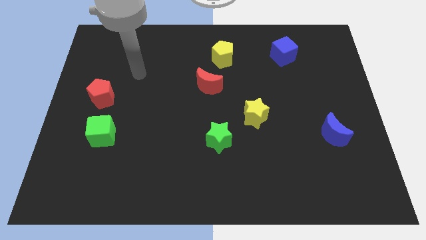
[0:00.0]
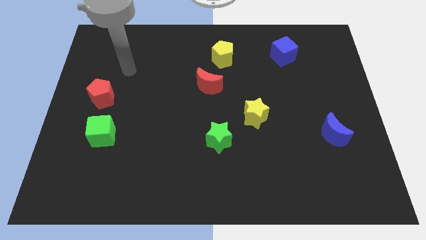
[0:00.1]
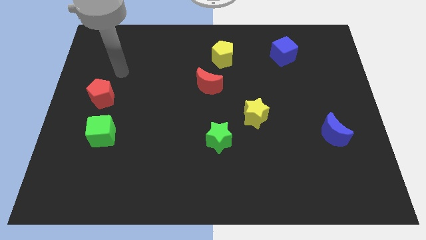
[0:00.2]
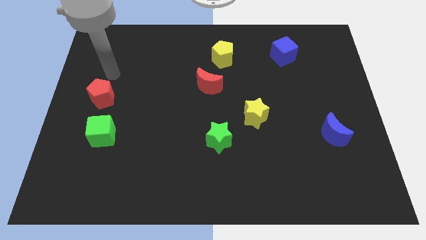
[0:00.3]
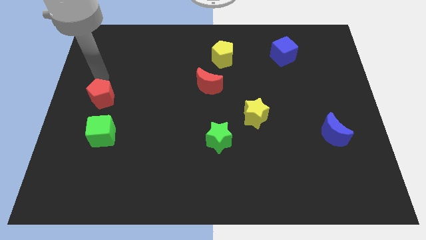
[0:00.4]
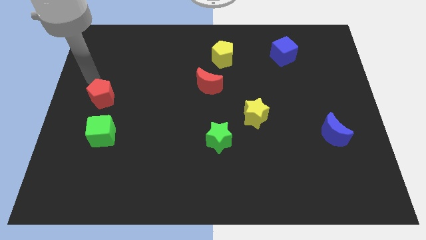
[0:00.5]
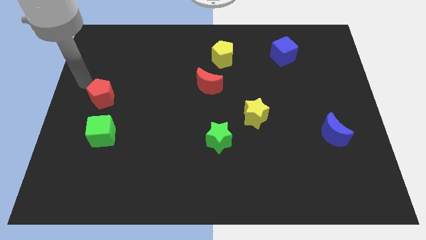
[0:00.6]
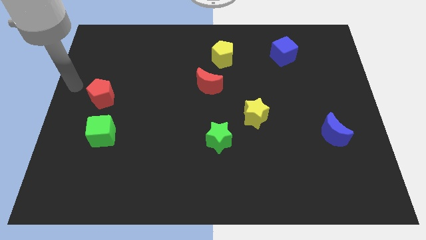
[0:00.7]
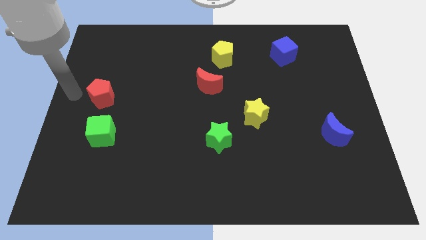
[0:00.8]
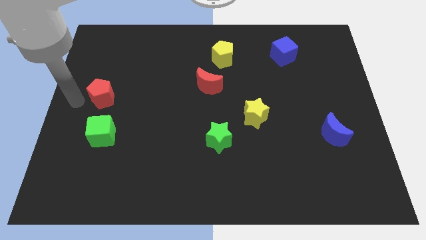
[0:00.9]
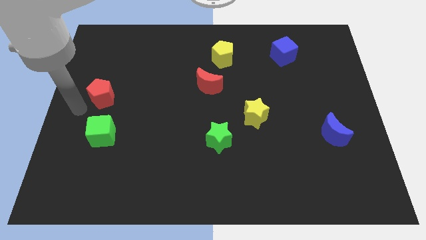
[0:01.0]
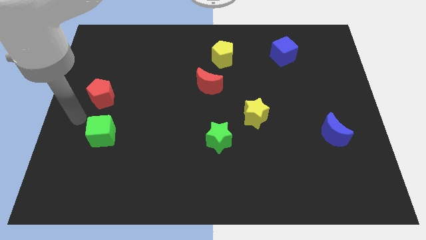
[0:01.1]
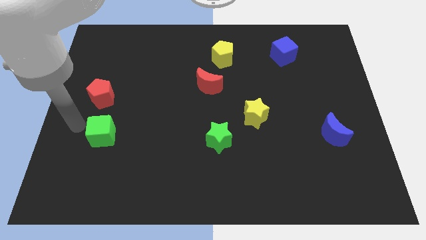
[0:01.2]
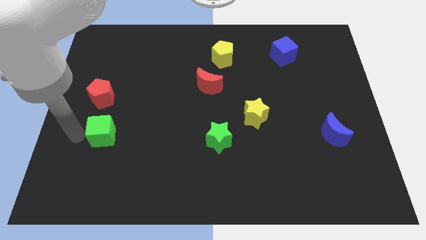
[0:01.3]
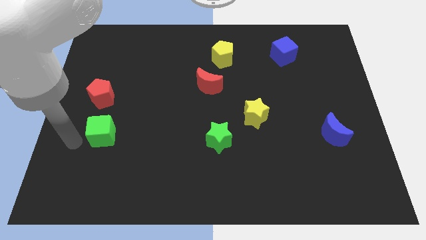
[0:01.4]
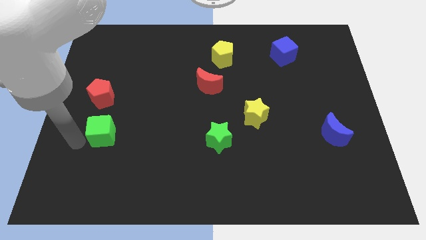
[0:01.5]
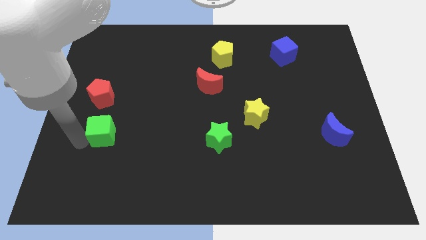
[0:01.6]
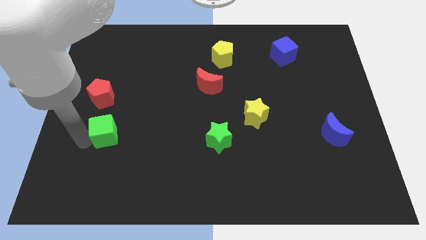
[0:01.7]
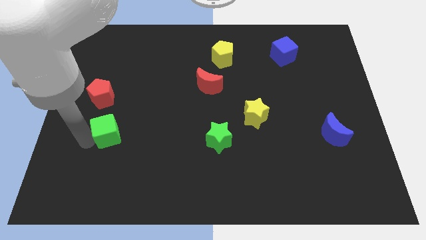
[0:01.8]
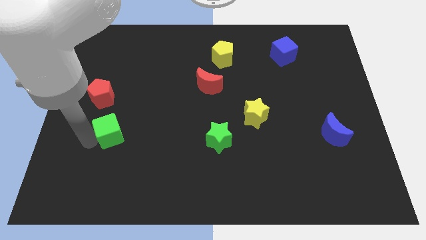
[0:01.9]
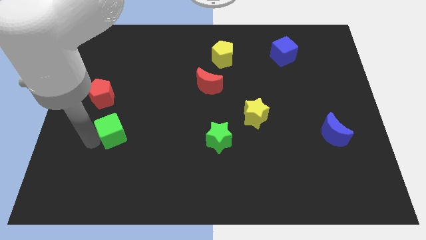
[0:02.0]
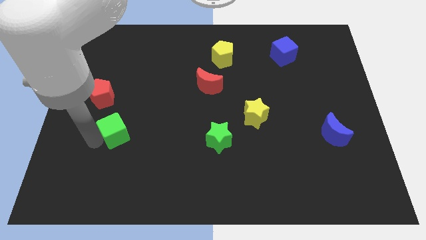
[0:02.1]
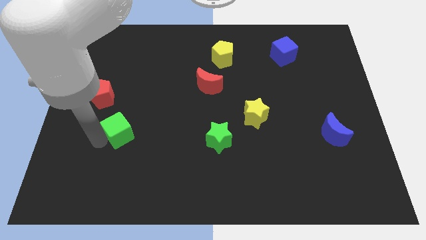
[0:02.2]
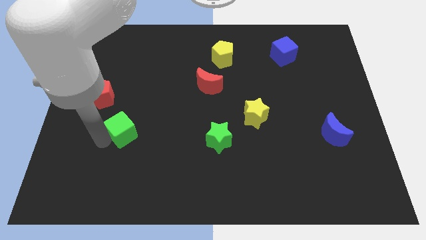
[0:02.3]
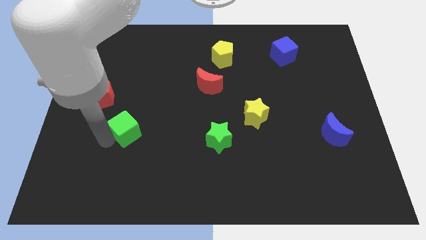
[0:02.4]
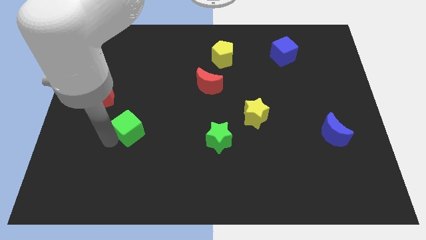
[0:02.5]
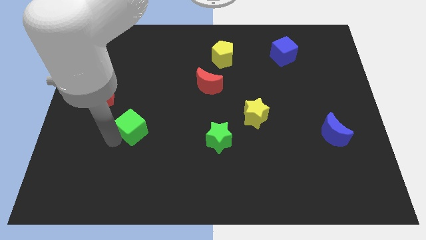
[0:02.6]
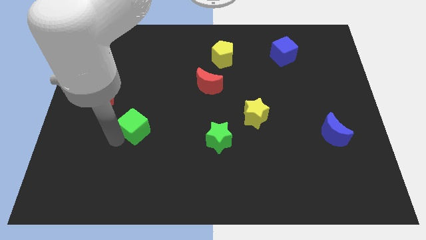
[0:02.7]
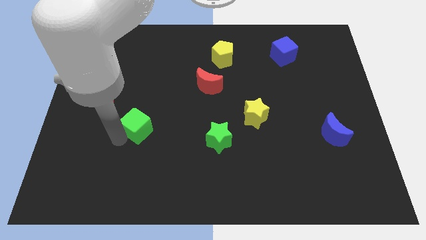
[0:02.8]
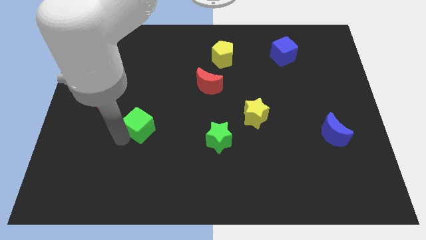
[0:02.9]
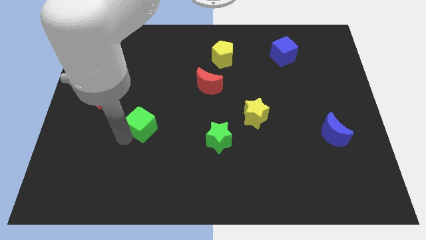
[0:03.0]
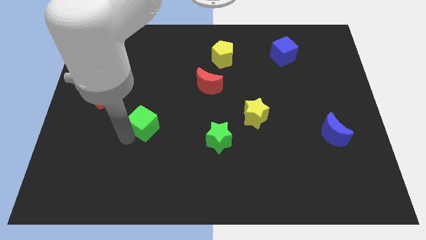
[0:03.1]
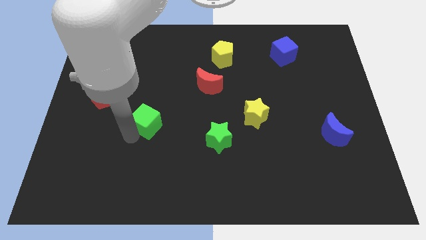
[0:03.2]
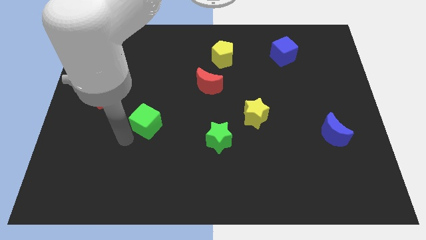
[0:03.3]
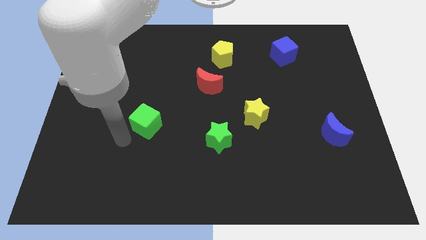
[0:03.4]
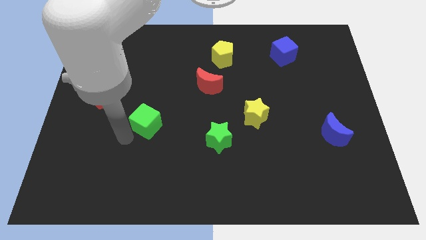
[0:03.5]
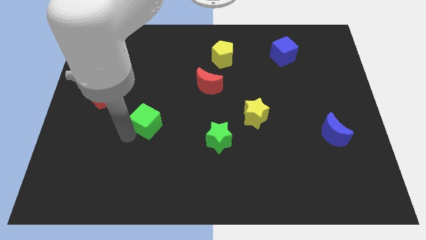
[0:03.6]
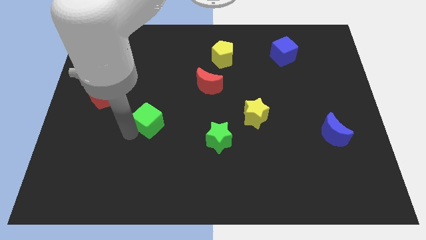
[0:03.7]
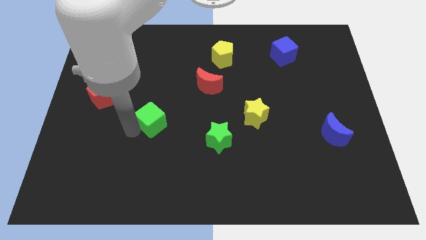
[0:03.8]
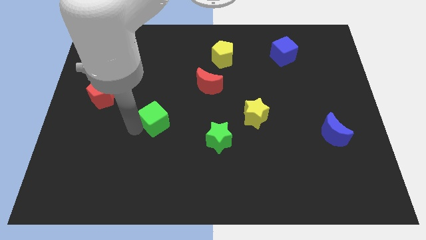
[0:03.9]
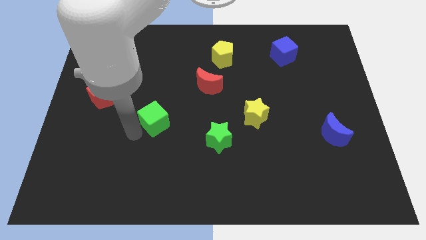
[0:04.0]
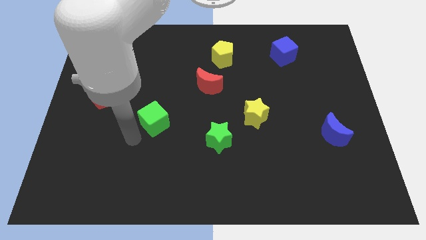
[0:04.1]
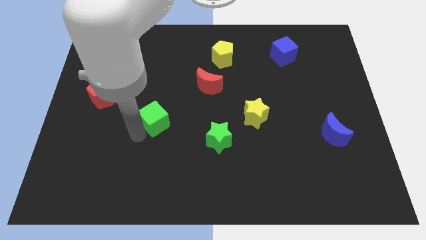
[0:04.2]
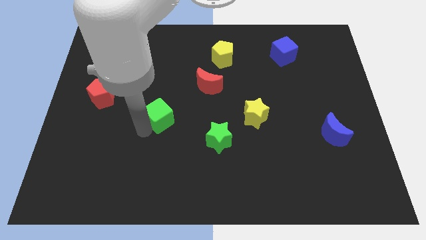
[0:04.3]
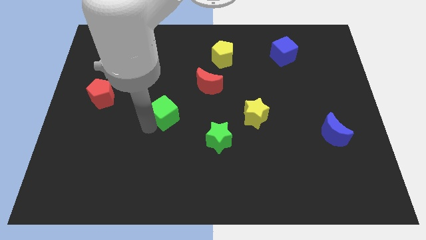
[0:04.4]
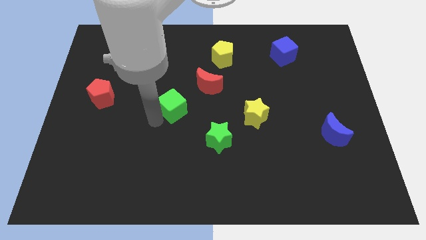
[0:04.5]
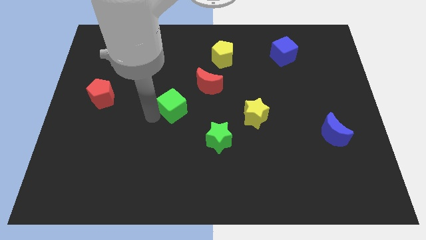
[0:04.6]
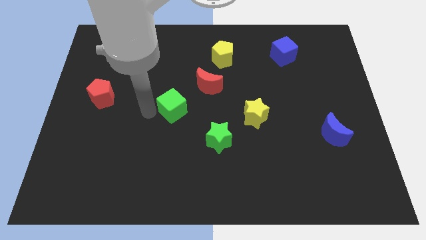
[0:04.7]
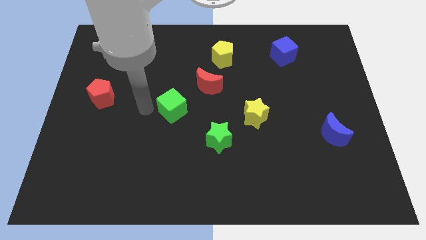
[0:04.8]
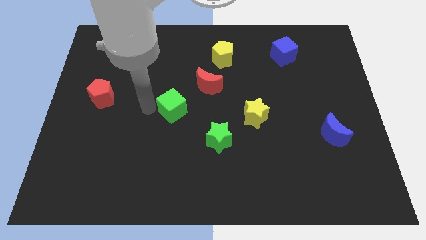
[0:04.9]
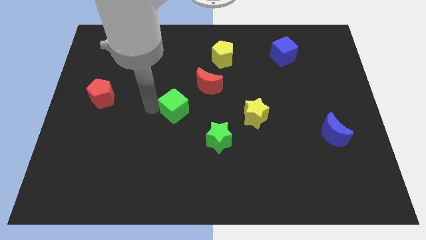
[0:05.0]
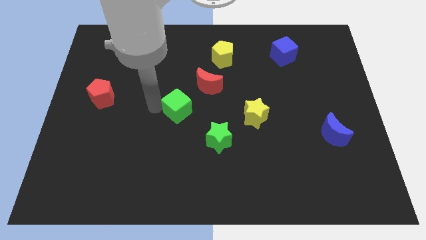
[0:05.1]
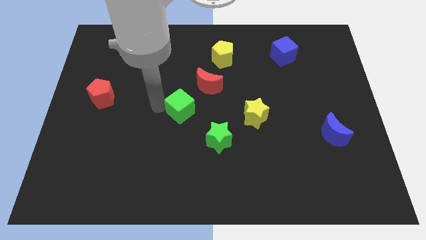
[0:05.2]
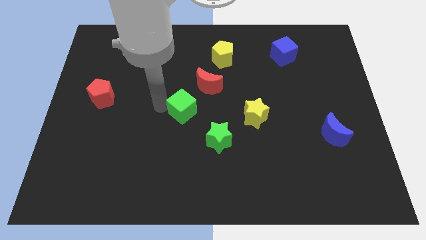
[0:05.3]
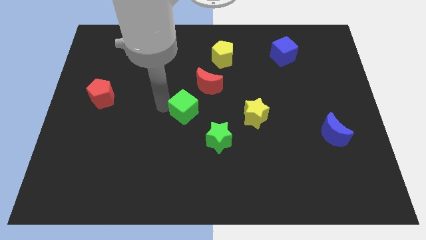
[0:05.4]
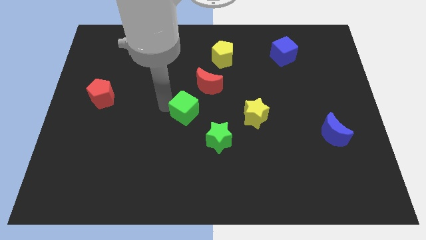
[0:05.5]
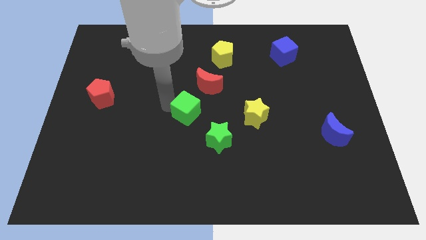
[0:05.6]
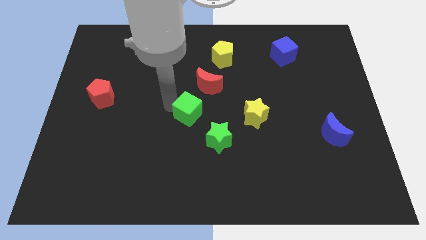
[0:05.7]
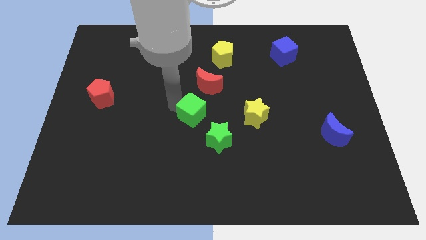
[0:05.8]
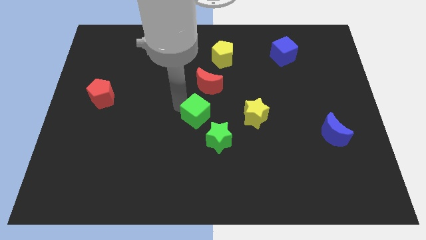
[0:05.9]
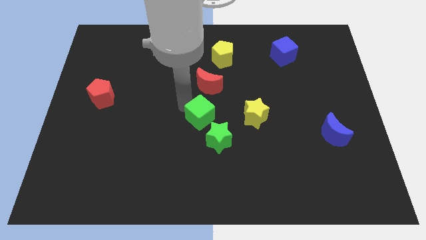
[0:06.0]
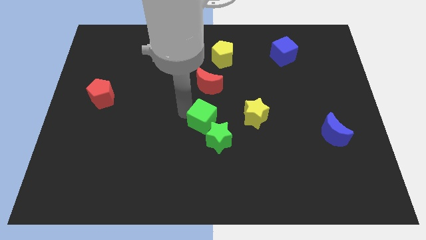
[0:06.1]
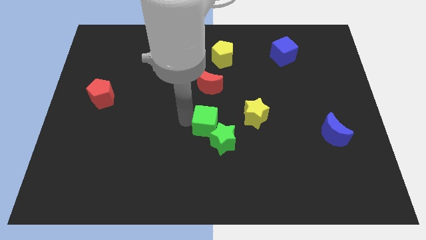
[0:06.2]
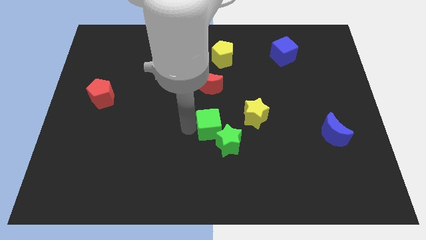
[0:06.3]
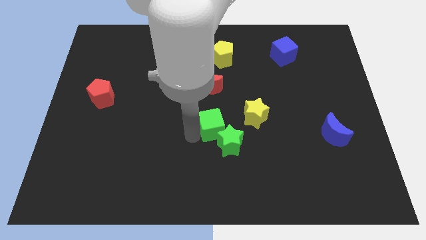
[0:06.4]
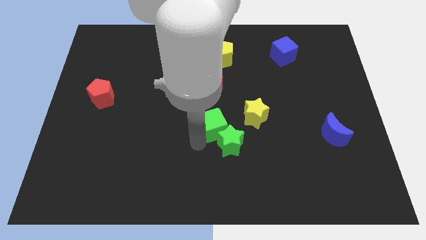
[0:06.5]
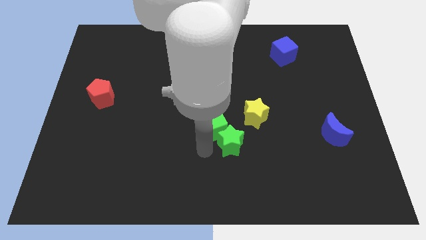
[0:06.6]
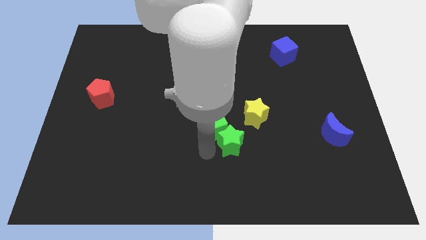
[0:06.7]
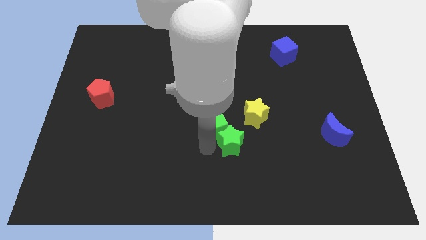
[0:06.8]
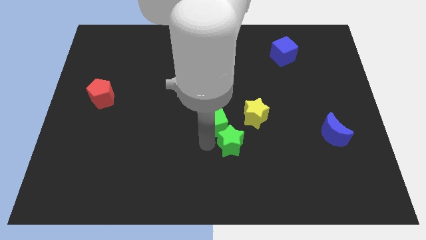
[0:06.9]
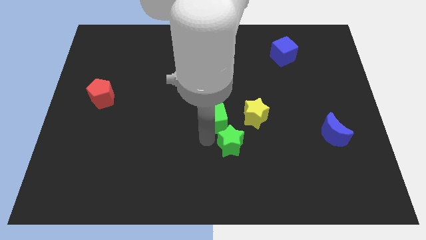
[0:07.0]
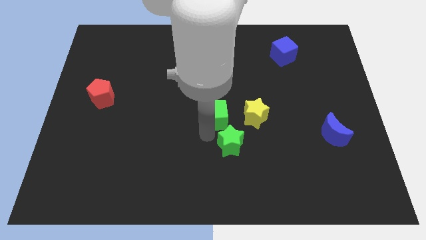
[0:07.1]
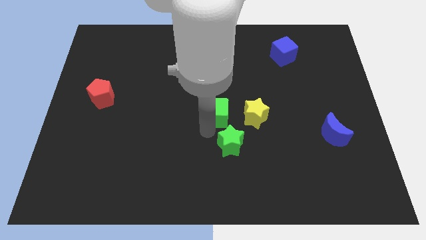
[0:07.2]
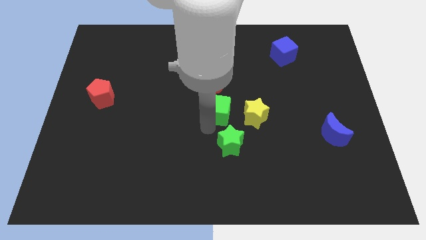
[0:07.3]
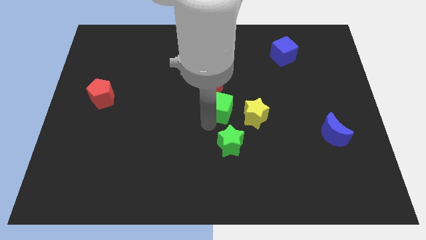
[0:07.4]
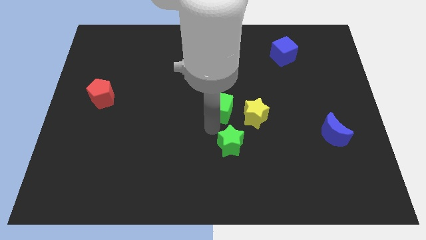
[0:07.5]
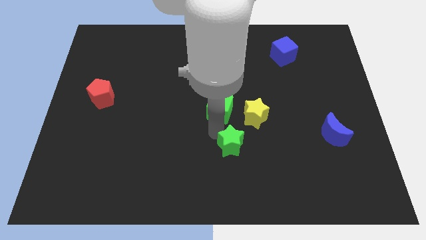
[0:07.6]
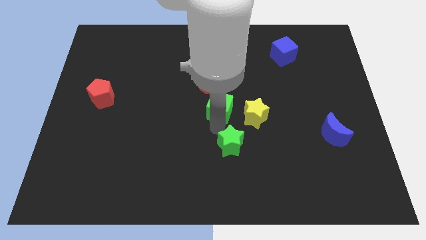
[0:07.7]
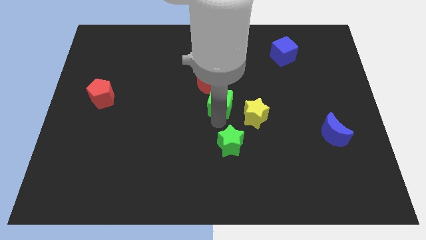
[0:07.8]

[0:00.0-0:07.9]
slide the green cube to the bottom of the yellow pentagon
